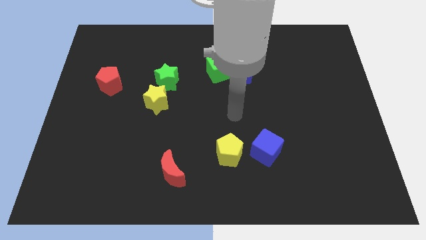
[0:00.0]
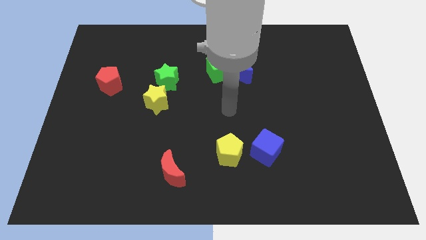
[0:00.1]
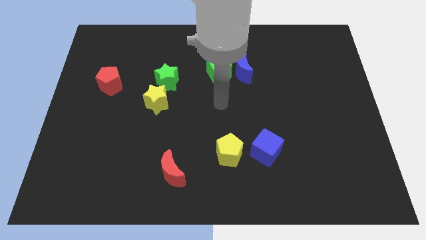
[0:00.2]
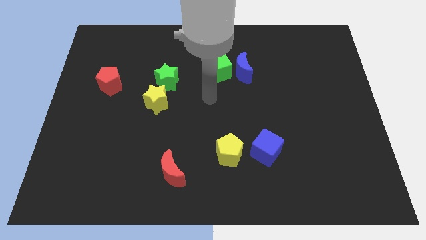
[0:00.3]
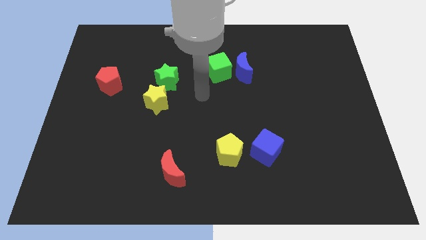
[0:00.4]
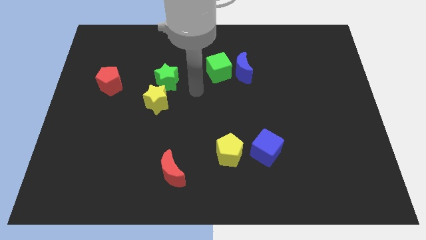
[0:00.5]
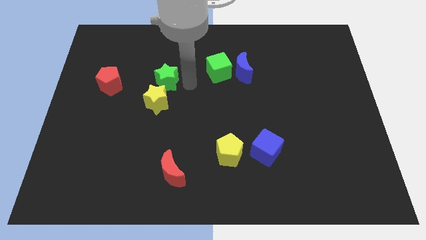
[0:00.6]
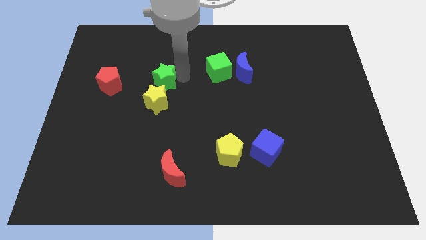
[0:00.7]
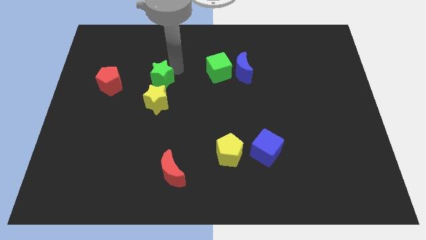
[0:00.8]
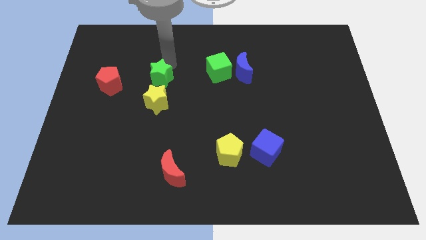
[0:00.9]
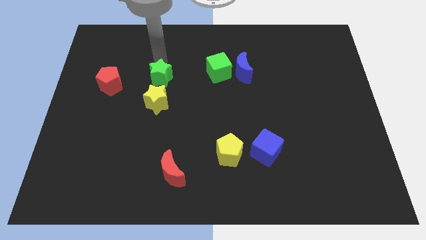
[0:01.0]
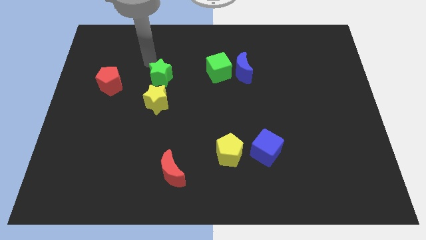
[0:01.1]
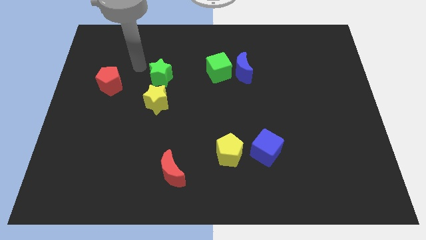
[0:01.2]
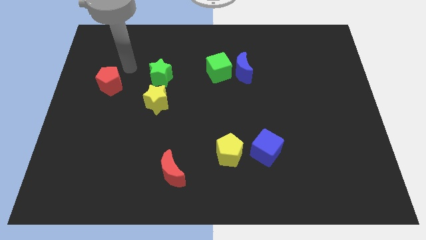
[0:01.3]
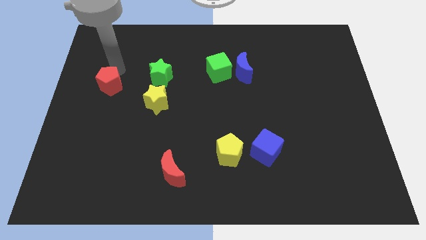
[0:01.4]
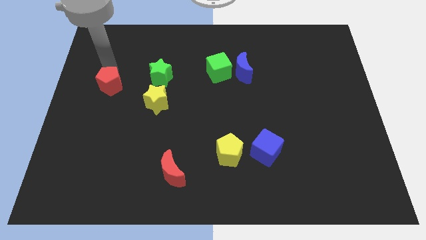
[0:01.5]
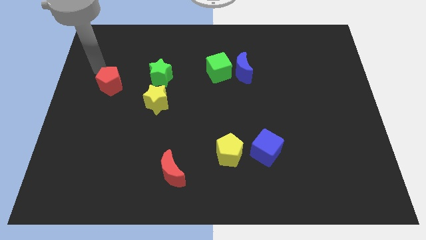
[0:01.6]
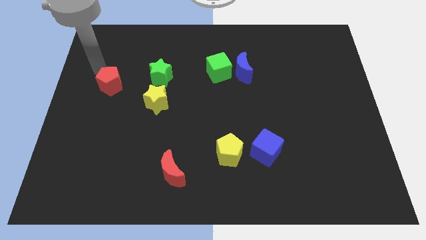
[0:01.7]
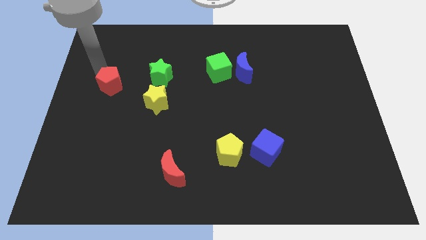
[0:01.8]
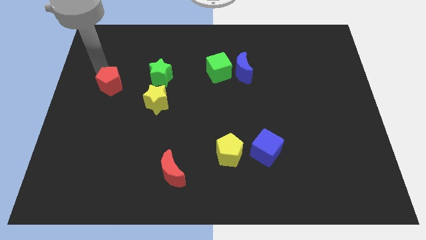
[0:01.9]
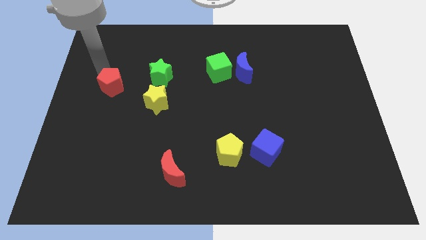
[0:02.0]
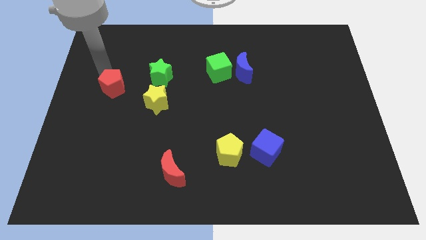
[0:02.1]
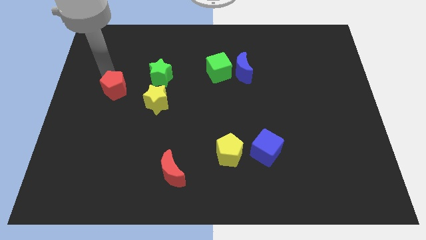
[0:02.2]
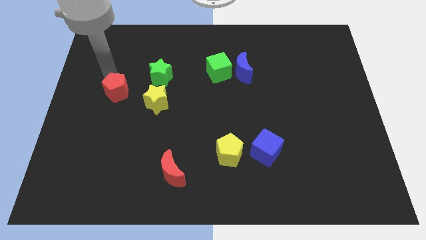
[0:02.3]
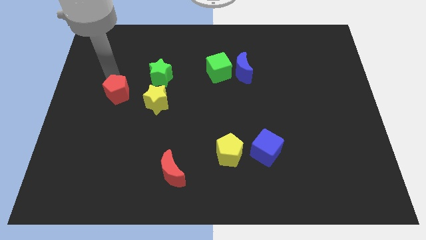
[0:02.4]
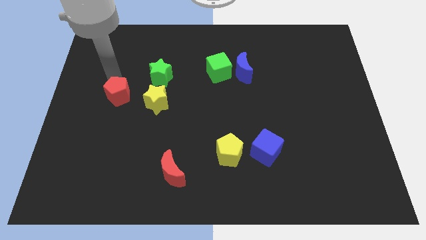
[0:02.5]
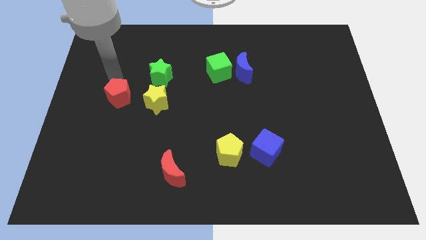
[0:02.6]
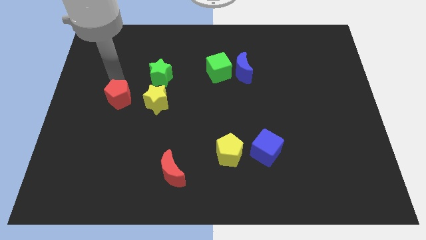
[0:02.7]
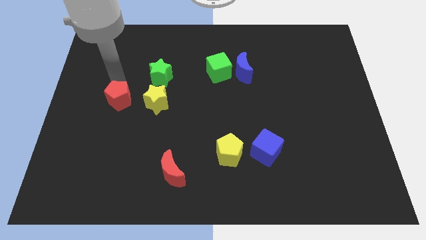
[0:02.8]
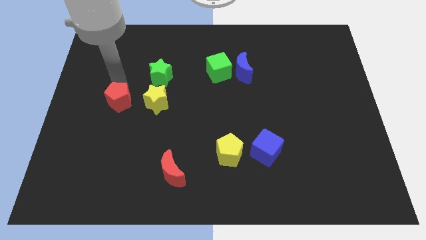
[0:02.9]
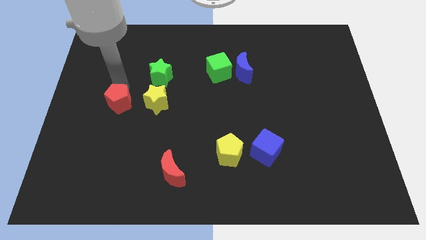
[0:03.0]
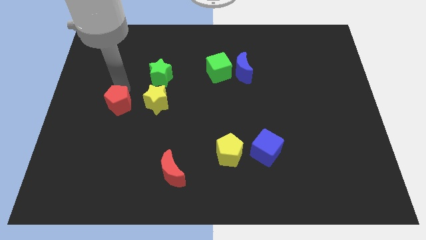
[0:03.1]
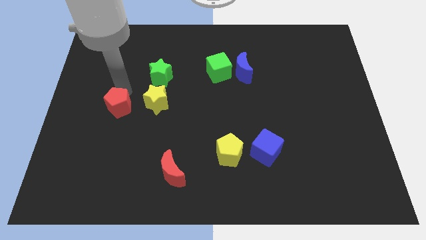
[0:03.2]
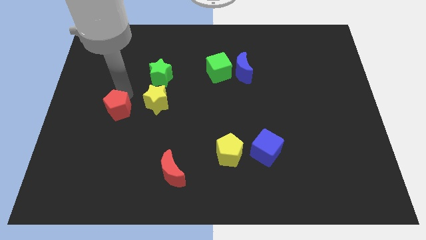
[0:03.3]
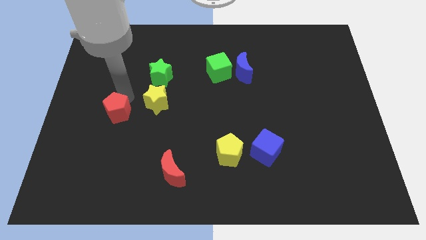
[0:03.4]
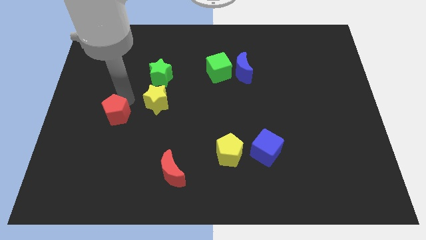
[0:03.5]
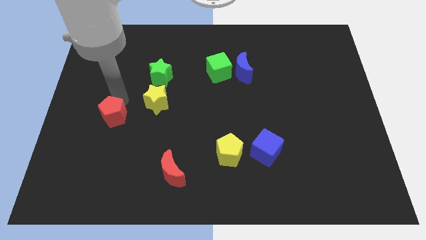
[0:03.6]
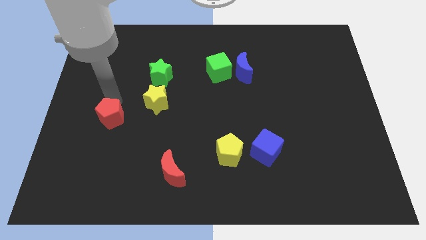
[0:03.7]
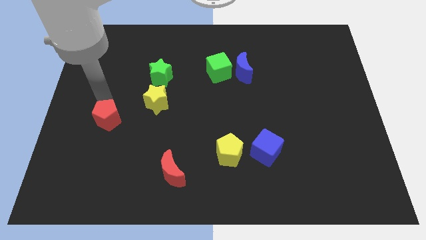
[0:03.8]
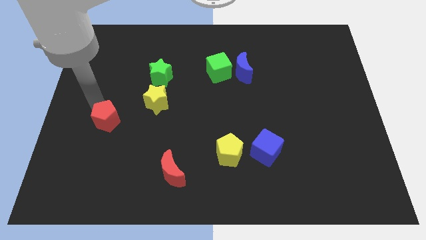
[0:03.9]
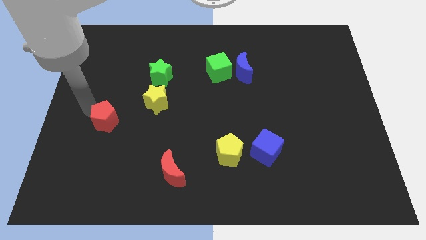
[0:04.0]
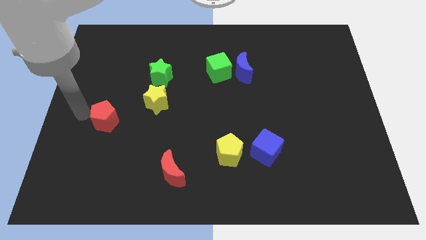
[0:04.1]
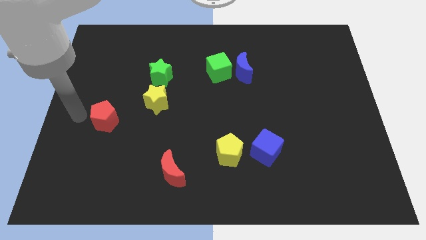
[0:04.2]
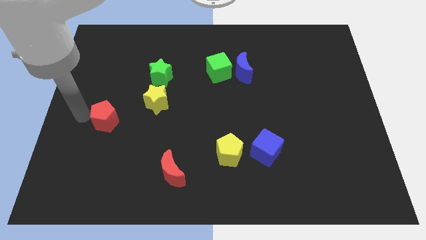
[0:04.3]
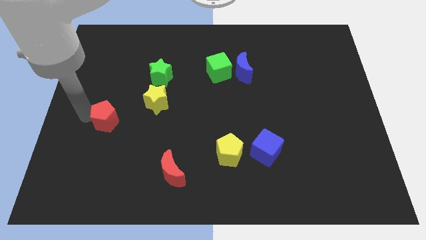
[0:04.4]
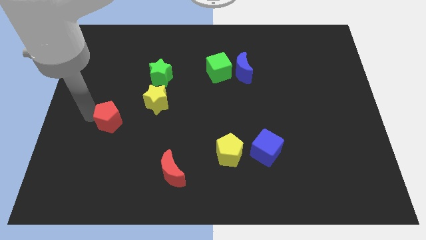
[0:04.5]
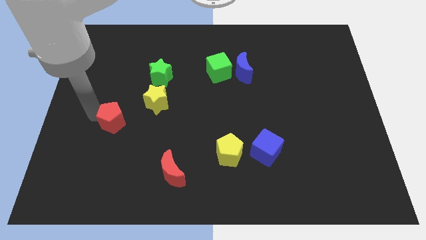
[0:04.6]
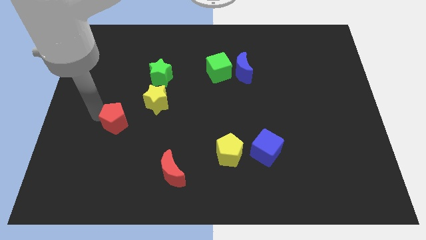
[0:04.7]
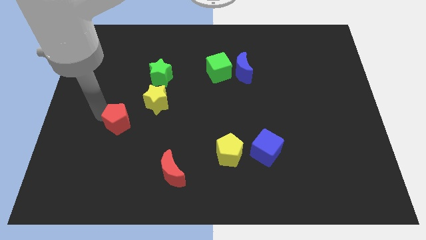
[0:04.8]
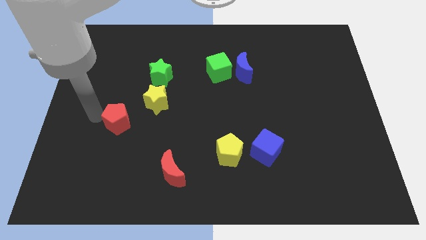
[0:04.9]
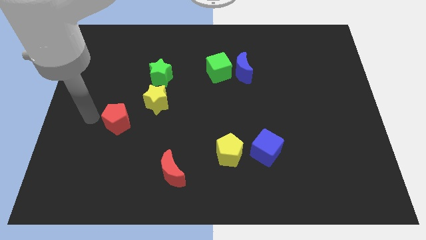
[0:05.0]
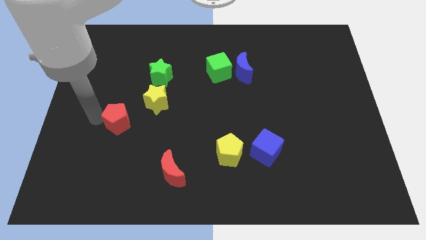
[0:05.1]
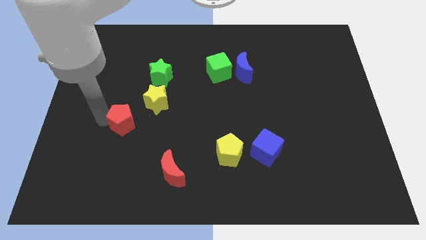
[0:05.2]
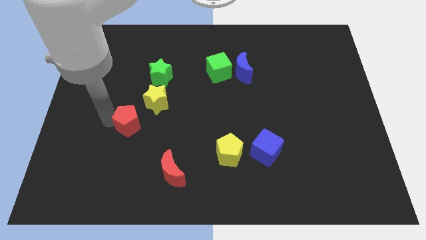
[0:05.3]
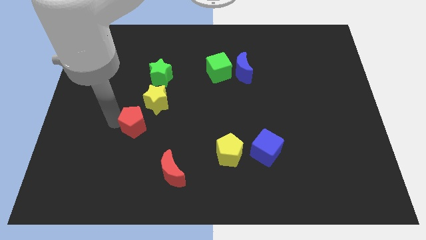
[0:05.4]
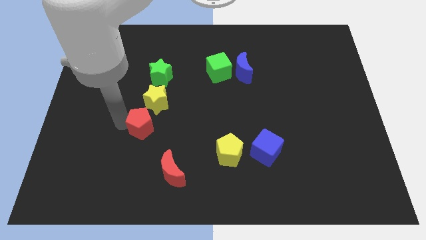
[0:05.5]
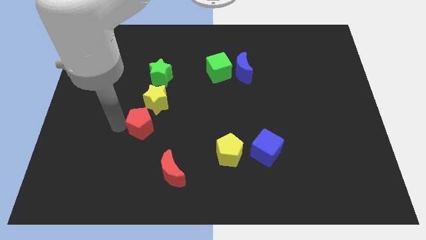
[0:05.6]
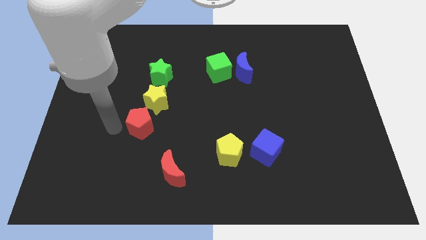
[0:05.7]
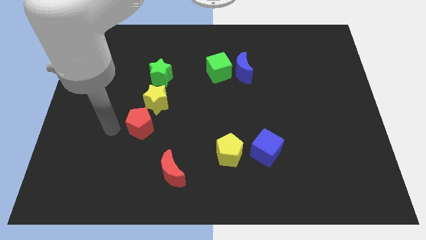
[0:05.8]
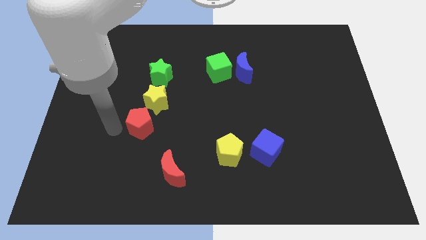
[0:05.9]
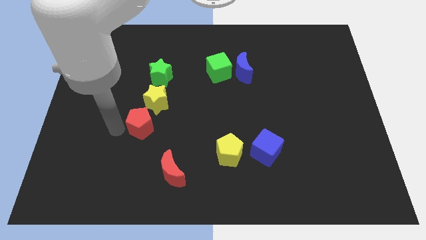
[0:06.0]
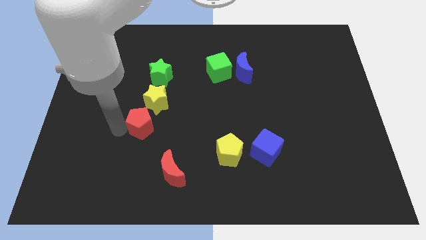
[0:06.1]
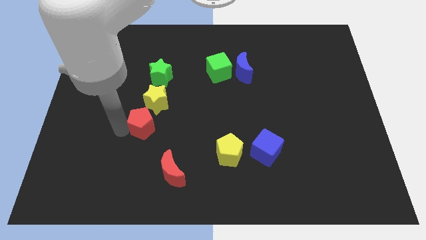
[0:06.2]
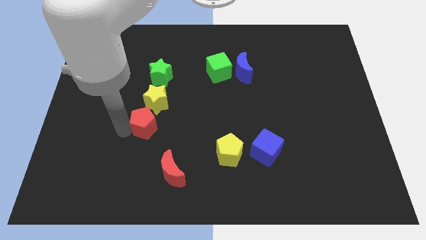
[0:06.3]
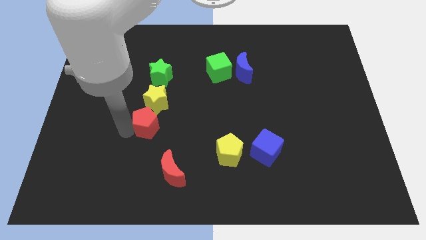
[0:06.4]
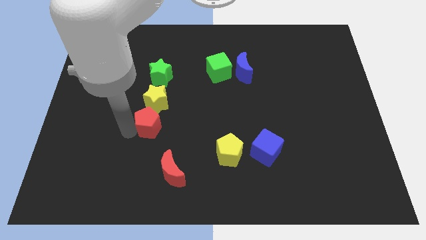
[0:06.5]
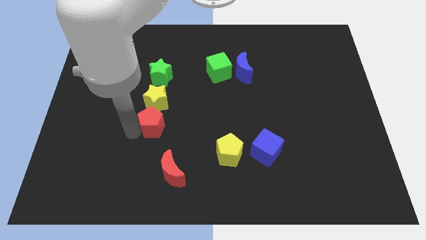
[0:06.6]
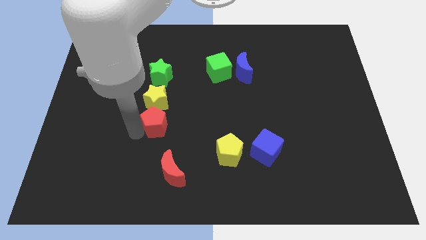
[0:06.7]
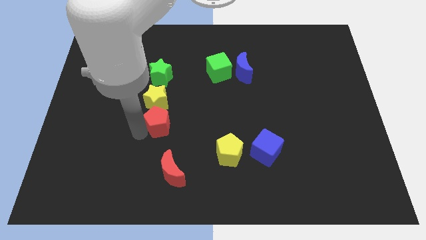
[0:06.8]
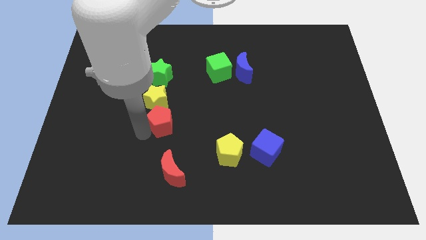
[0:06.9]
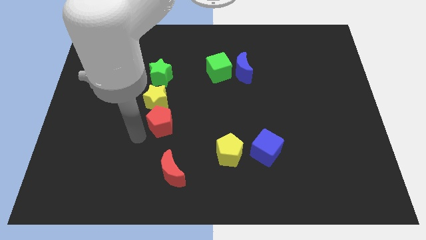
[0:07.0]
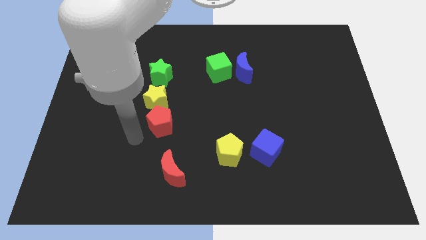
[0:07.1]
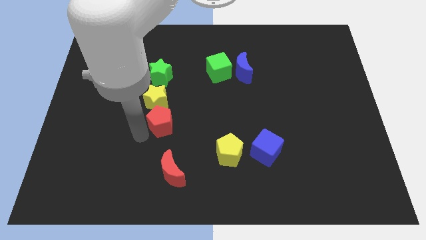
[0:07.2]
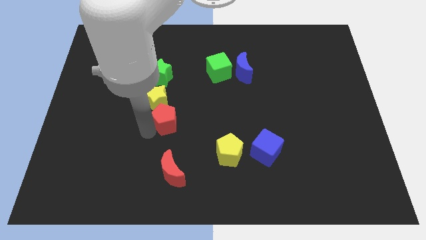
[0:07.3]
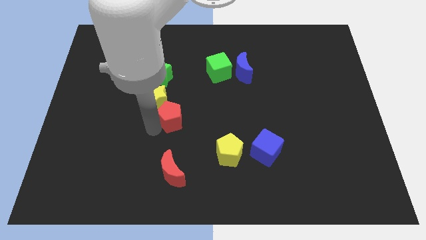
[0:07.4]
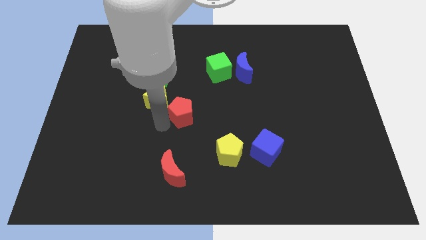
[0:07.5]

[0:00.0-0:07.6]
put the red pentagon to the right of the yellow star
